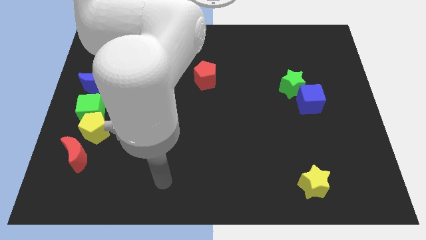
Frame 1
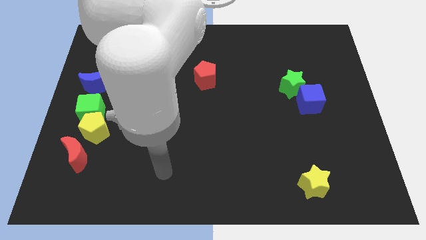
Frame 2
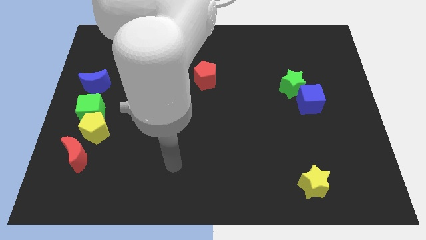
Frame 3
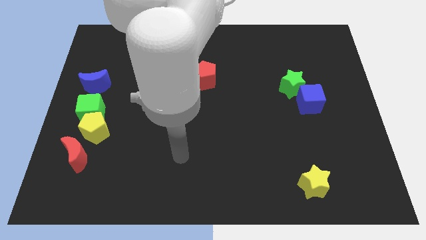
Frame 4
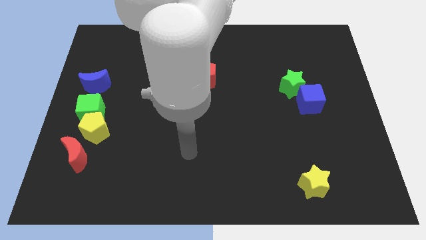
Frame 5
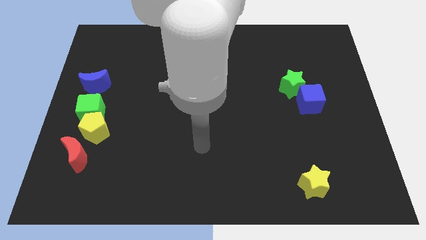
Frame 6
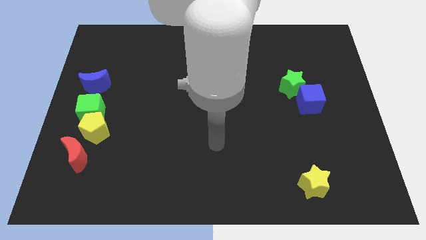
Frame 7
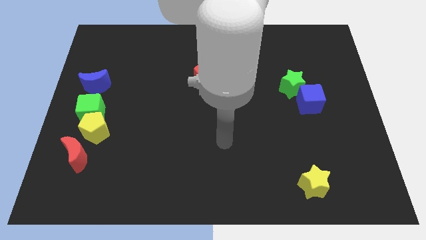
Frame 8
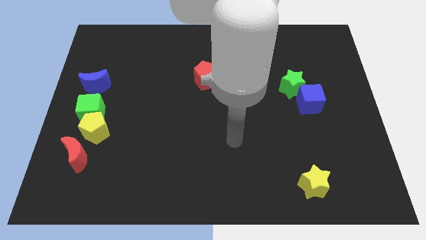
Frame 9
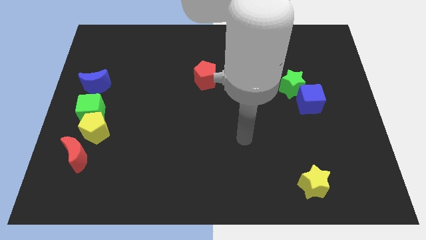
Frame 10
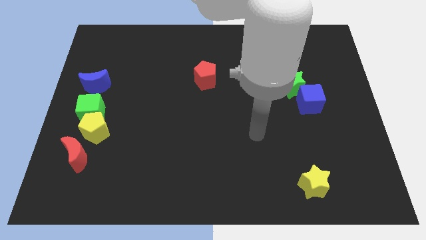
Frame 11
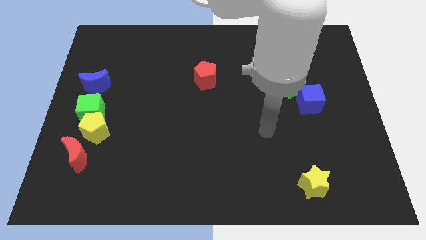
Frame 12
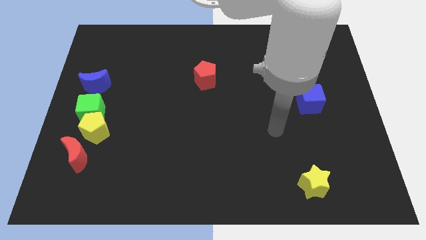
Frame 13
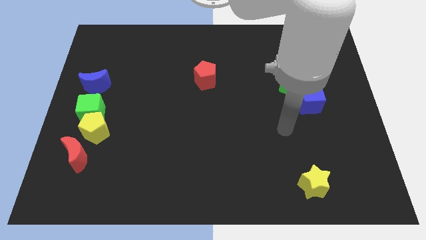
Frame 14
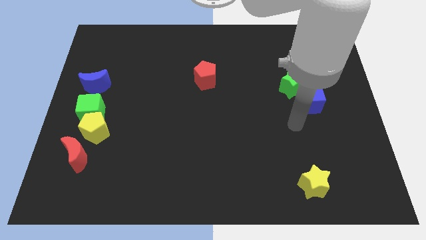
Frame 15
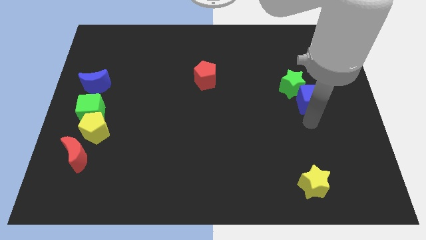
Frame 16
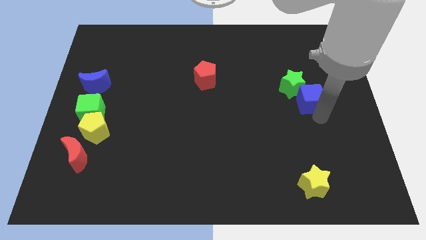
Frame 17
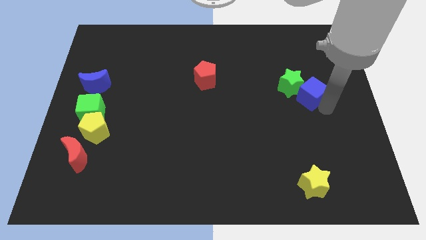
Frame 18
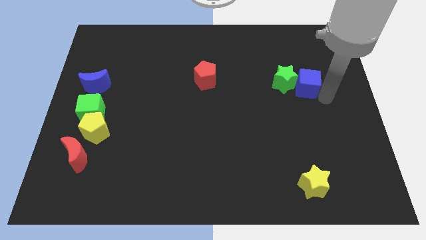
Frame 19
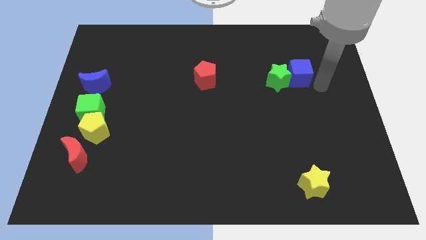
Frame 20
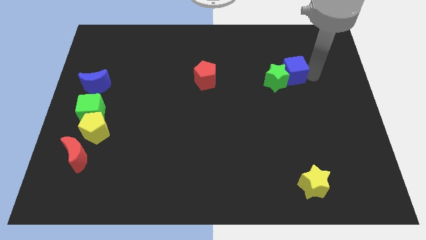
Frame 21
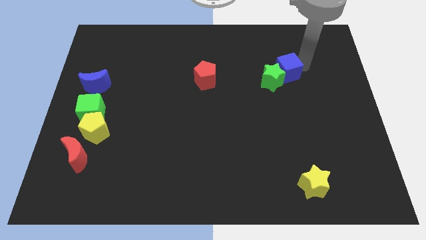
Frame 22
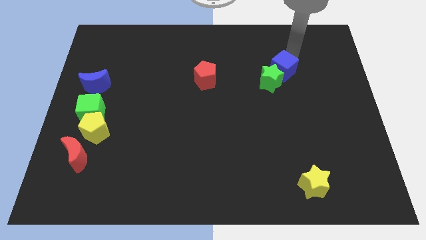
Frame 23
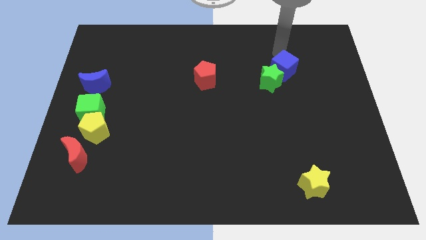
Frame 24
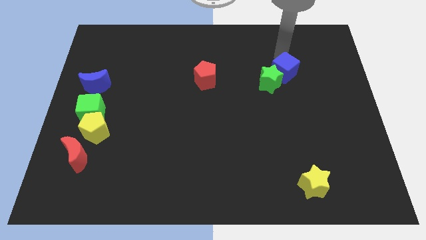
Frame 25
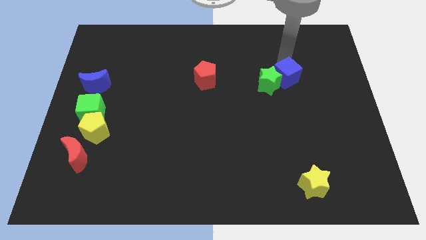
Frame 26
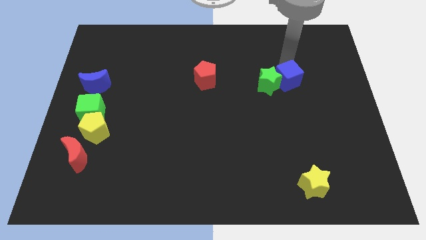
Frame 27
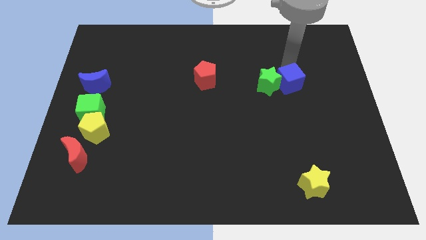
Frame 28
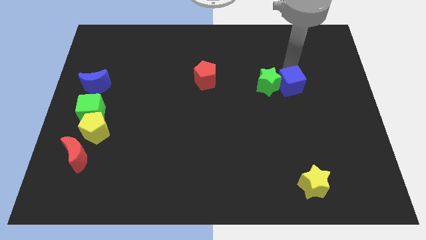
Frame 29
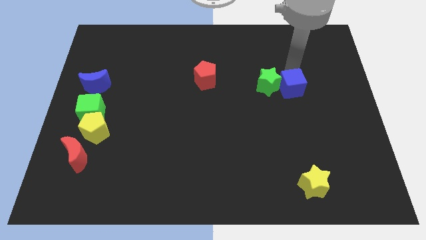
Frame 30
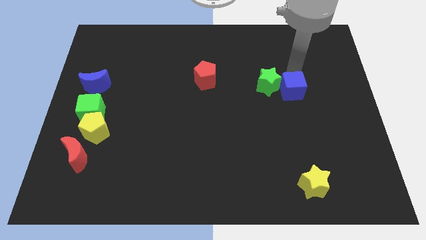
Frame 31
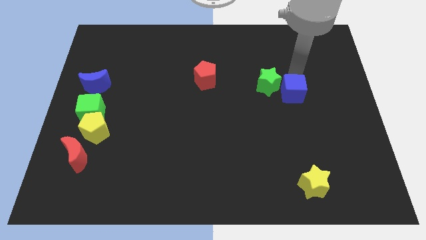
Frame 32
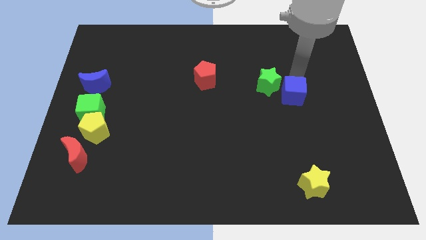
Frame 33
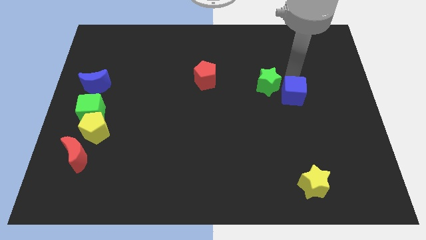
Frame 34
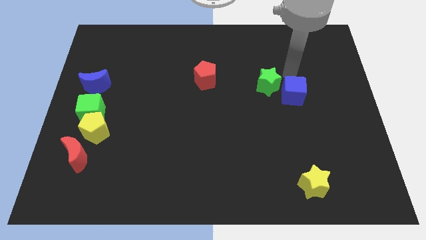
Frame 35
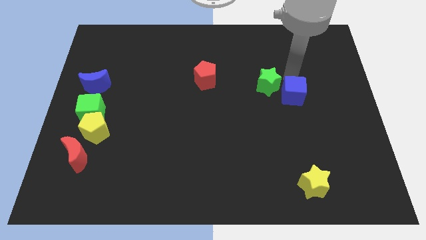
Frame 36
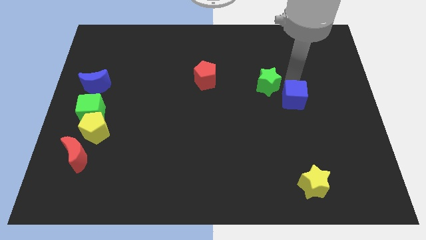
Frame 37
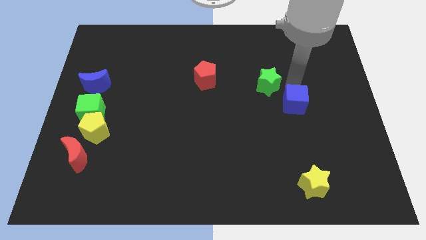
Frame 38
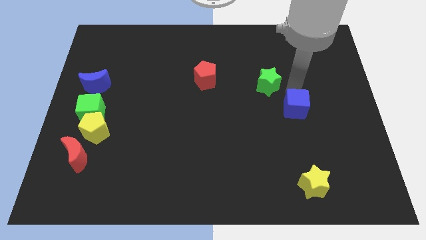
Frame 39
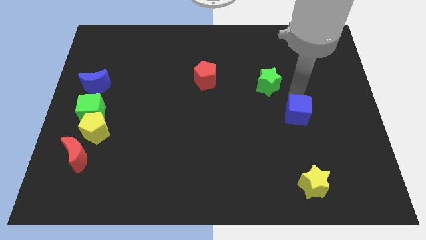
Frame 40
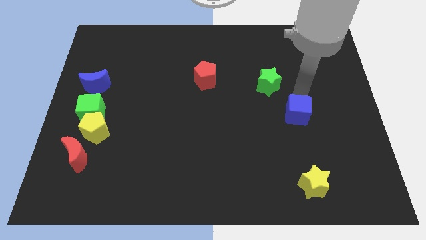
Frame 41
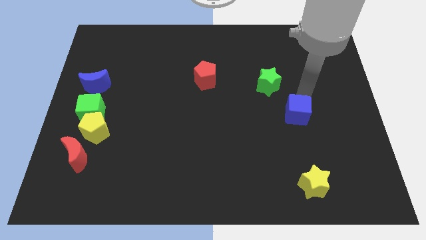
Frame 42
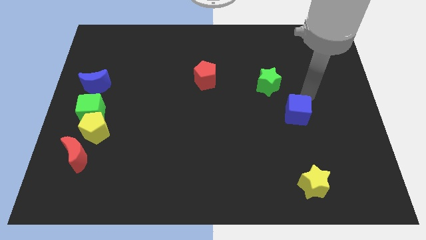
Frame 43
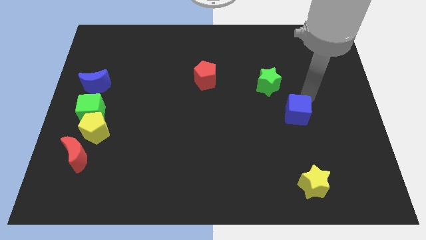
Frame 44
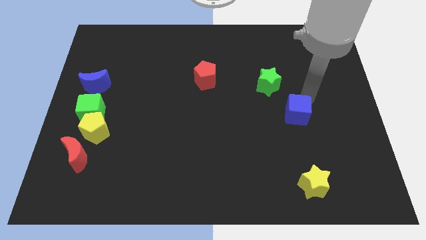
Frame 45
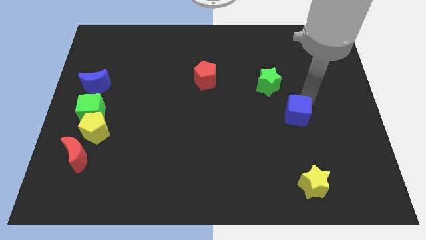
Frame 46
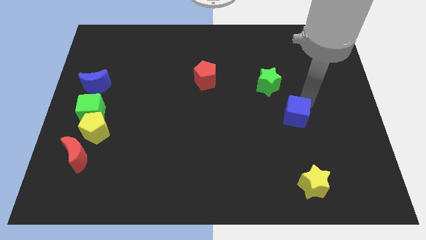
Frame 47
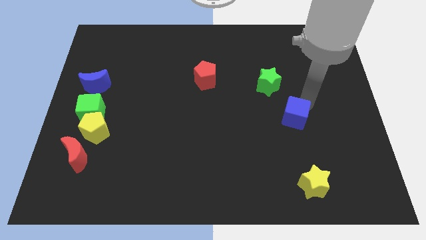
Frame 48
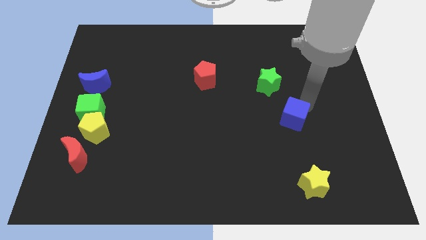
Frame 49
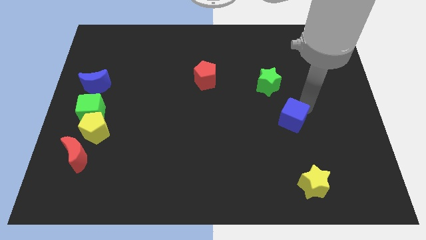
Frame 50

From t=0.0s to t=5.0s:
slightly push the blue cube downwards and left

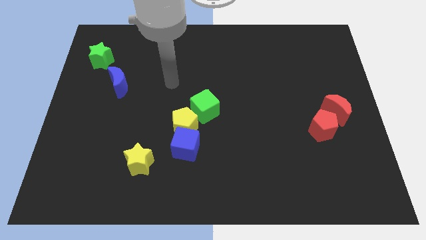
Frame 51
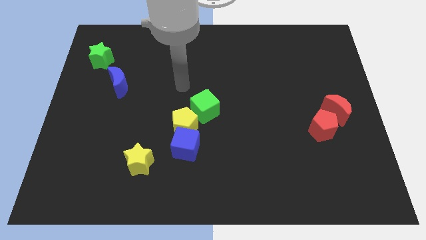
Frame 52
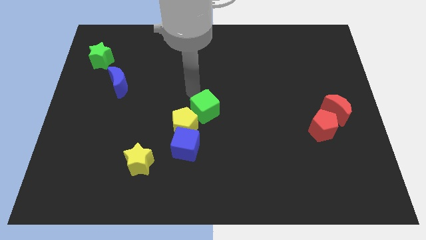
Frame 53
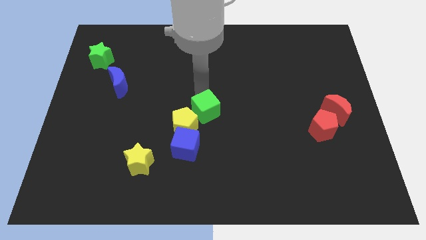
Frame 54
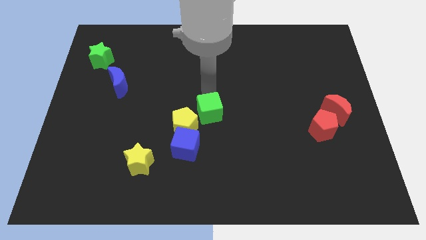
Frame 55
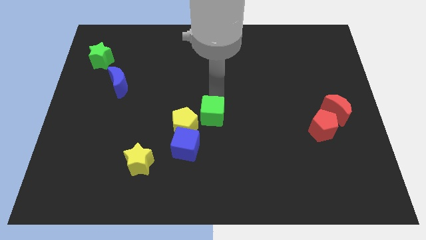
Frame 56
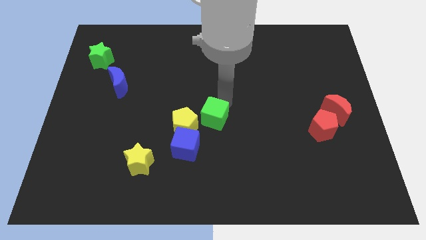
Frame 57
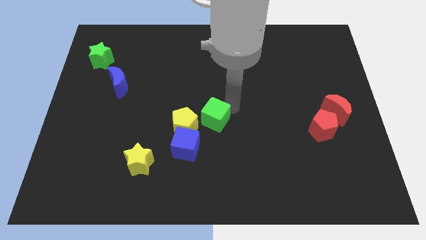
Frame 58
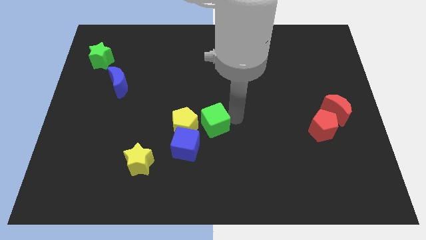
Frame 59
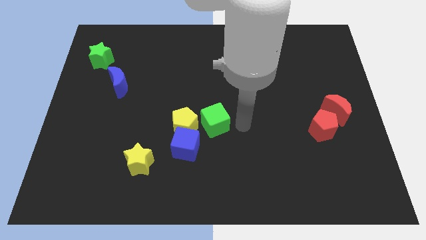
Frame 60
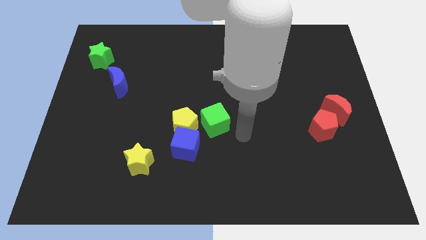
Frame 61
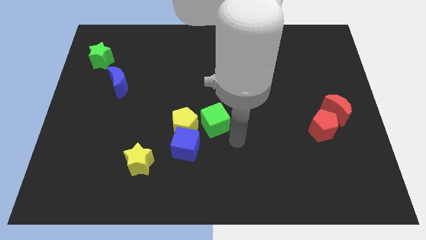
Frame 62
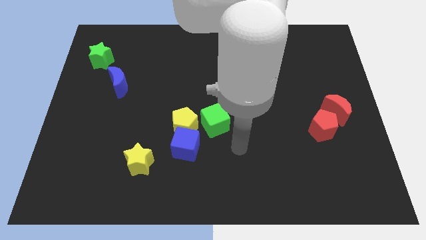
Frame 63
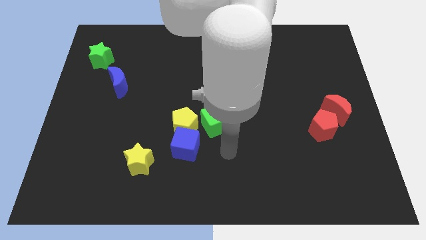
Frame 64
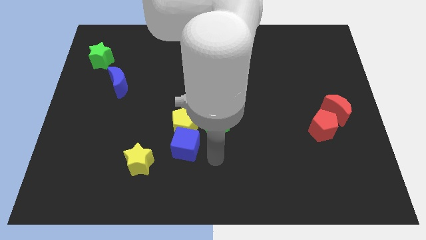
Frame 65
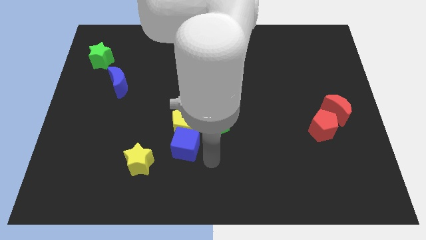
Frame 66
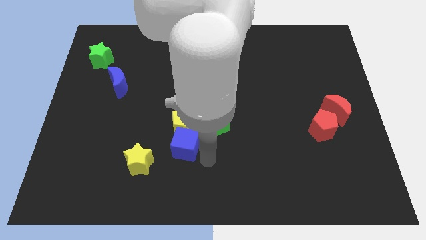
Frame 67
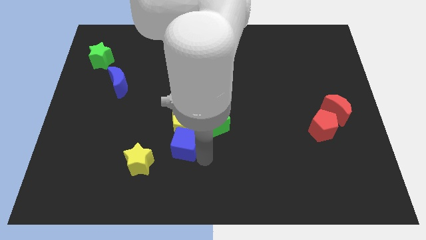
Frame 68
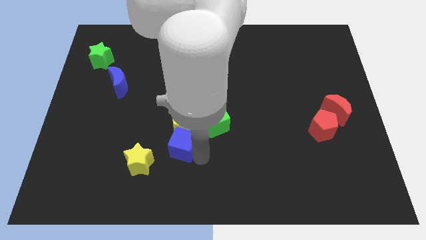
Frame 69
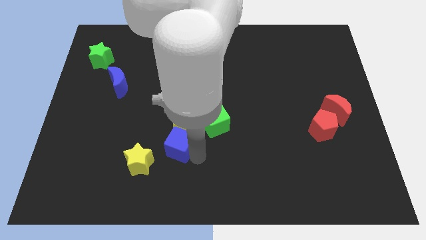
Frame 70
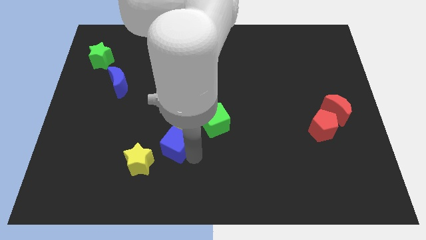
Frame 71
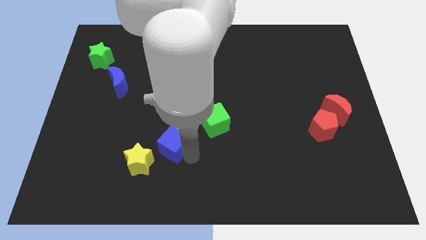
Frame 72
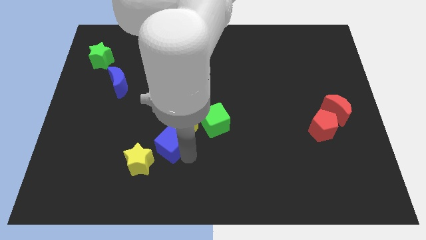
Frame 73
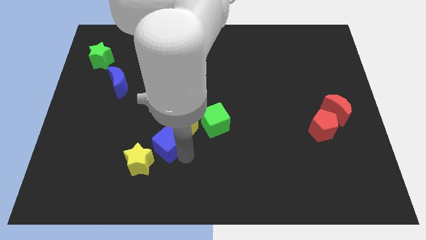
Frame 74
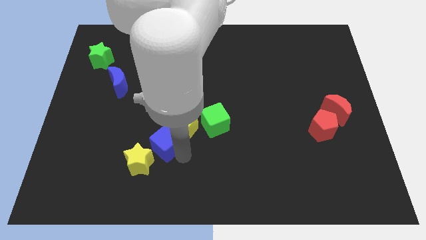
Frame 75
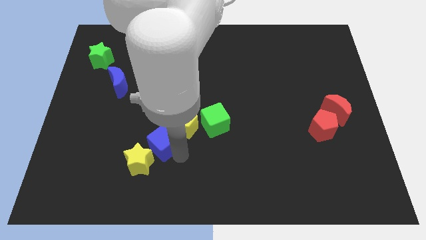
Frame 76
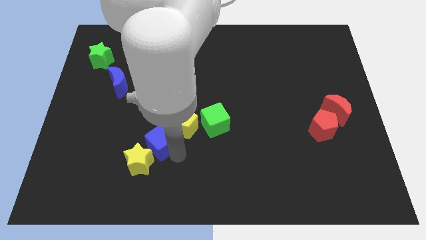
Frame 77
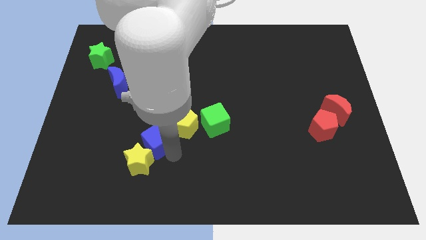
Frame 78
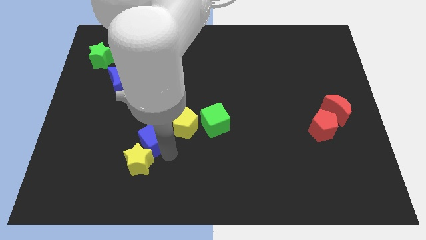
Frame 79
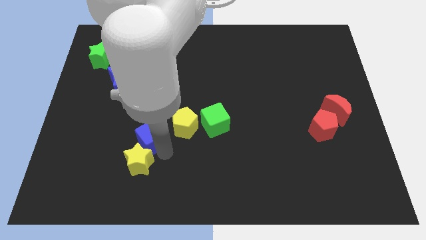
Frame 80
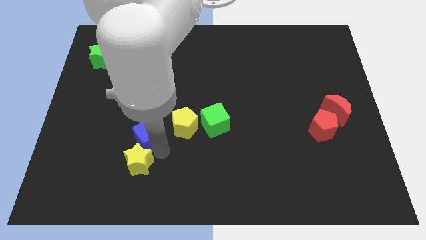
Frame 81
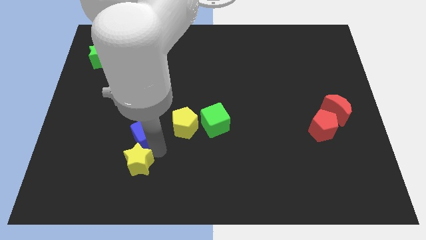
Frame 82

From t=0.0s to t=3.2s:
slightly move the blue cube upwards and then left
